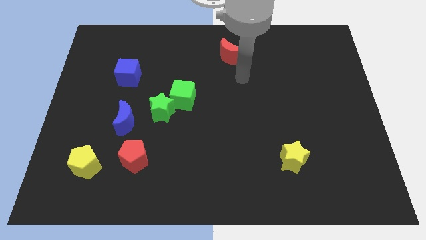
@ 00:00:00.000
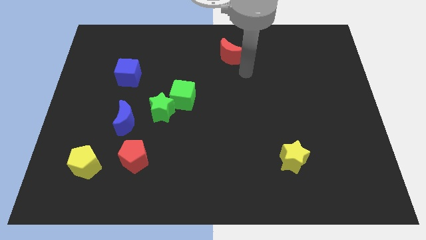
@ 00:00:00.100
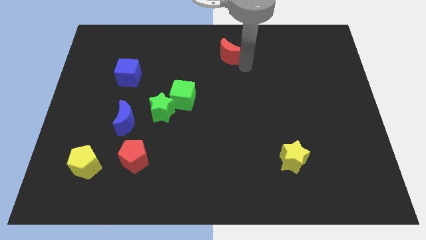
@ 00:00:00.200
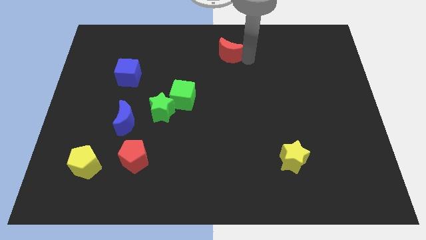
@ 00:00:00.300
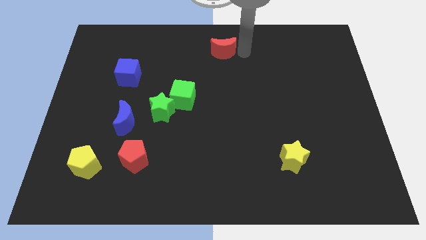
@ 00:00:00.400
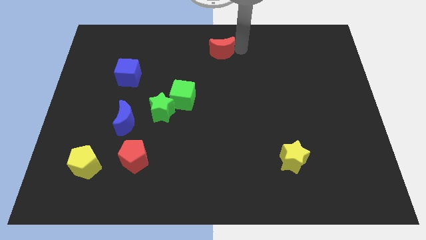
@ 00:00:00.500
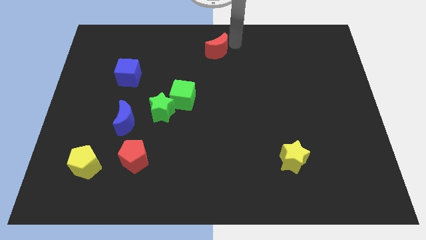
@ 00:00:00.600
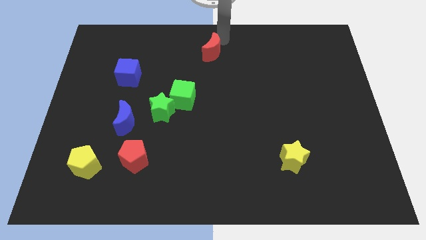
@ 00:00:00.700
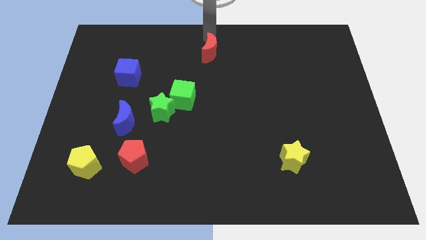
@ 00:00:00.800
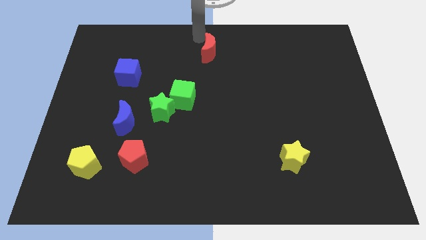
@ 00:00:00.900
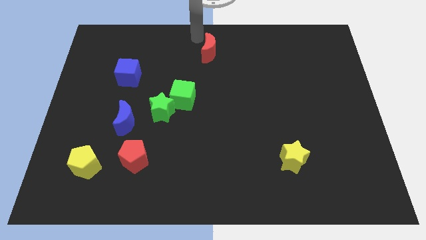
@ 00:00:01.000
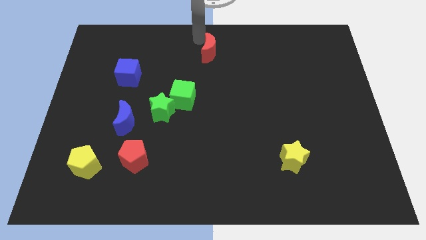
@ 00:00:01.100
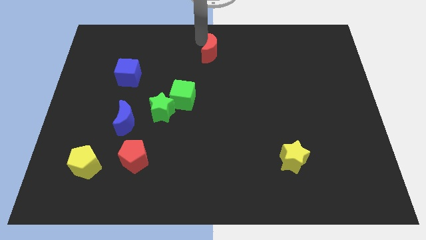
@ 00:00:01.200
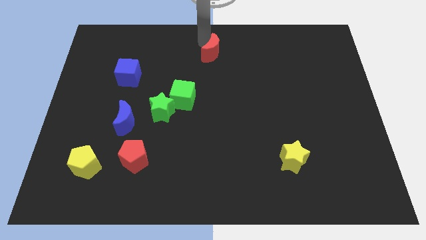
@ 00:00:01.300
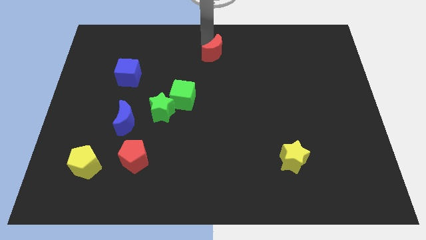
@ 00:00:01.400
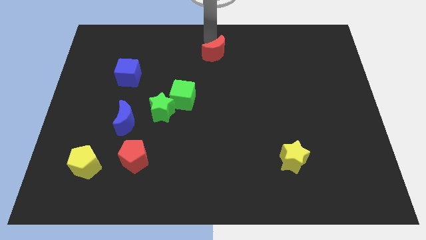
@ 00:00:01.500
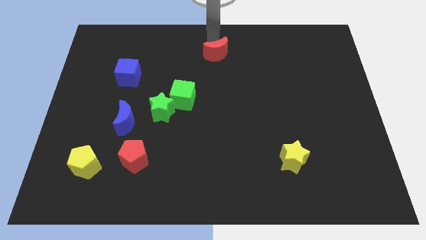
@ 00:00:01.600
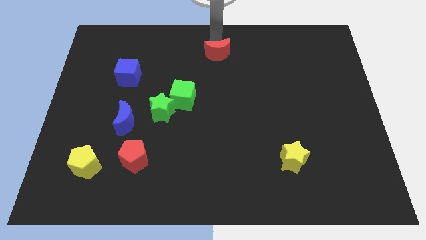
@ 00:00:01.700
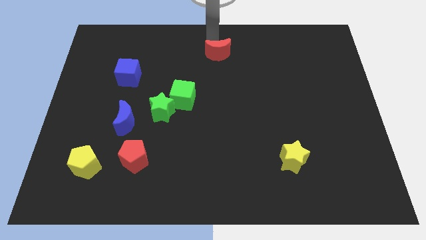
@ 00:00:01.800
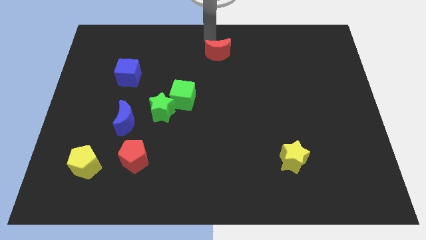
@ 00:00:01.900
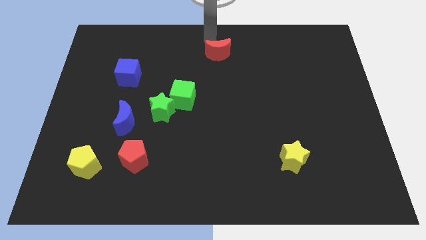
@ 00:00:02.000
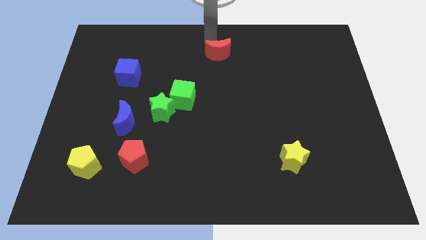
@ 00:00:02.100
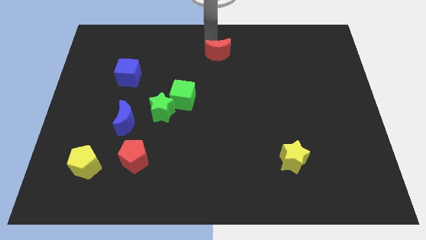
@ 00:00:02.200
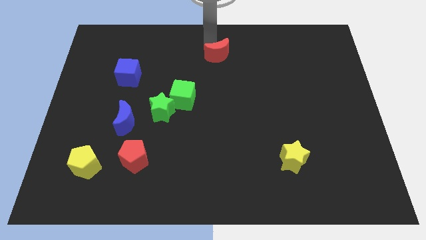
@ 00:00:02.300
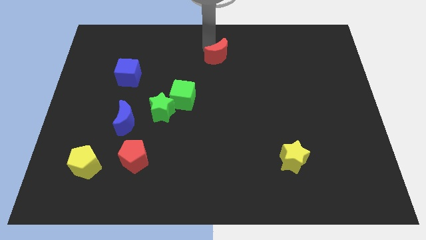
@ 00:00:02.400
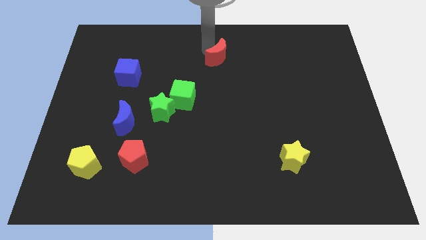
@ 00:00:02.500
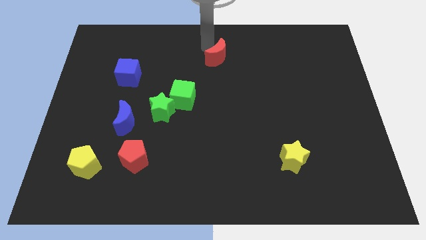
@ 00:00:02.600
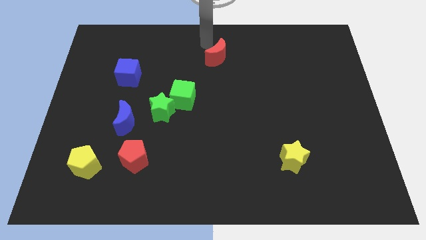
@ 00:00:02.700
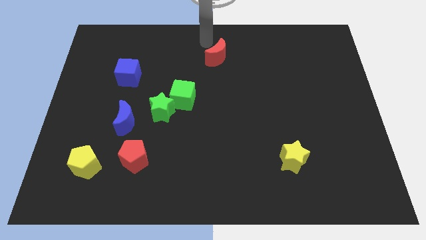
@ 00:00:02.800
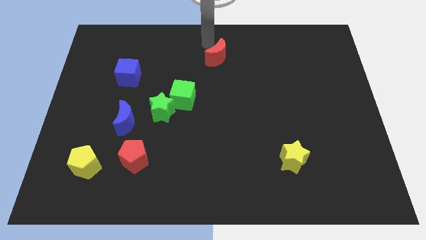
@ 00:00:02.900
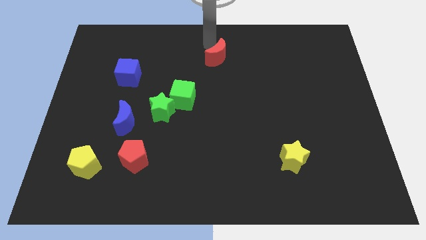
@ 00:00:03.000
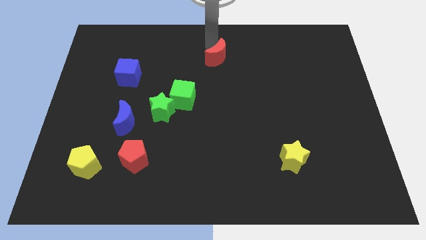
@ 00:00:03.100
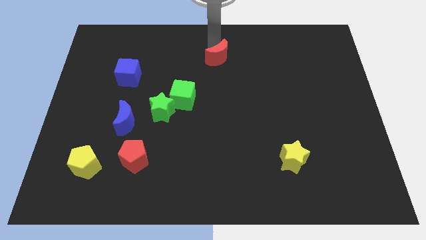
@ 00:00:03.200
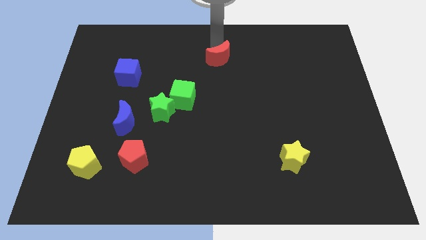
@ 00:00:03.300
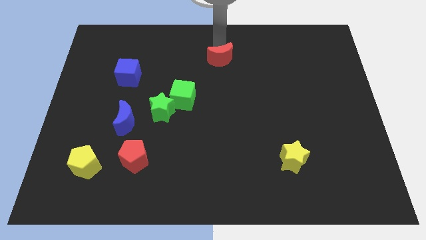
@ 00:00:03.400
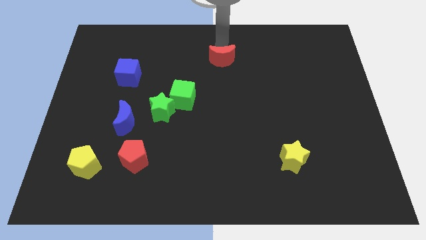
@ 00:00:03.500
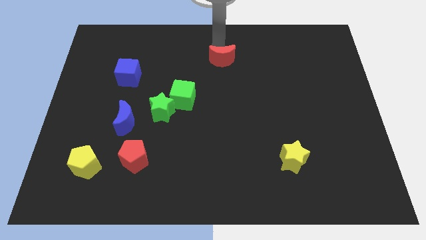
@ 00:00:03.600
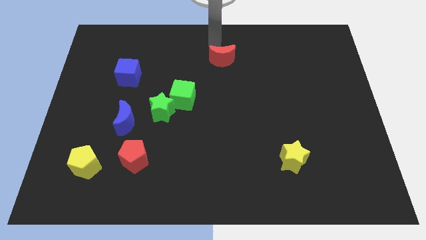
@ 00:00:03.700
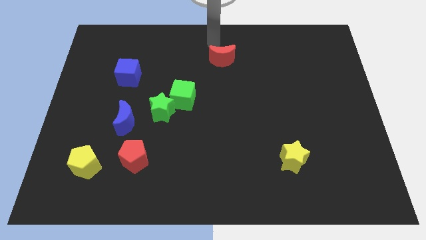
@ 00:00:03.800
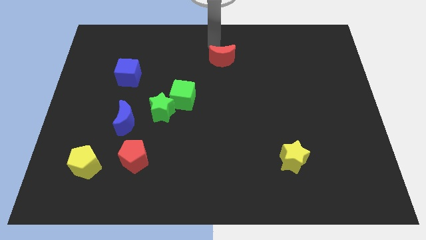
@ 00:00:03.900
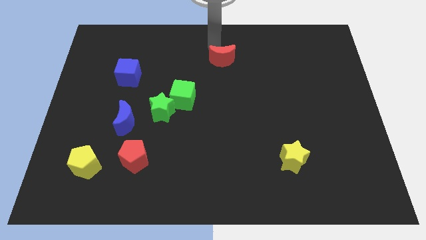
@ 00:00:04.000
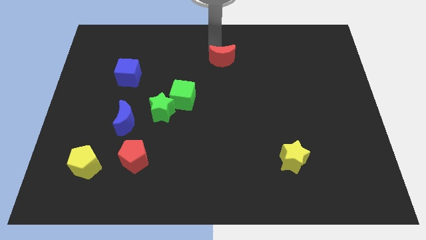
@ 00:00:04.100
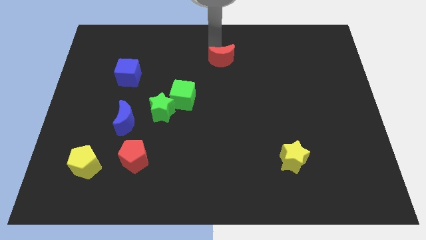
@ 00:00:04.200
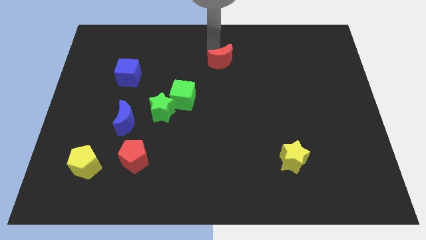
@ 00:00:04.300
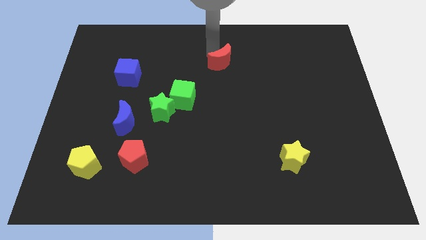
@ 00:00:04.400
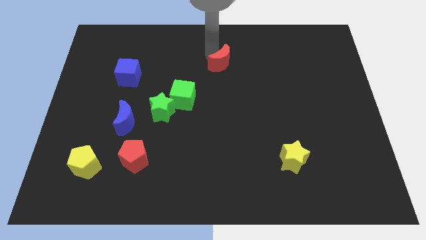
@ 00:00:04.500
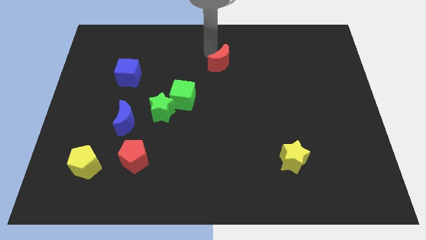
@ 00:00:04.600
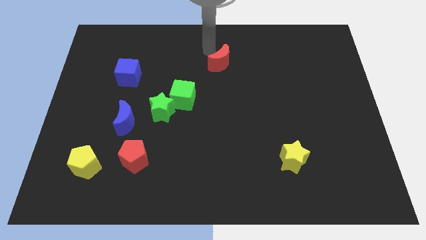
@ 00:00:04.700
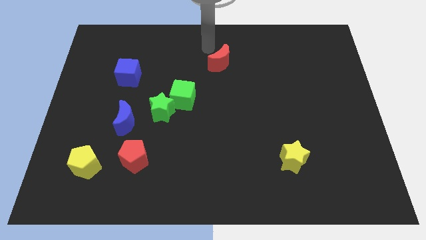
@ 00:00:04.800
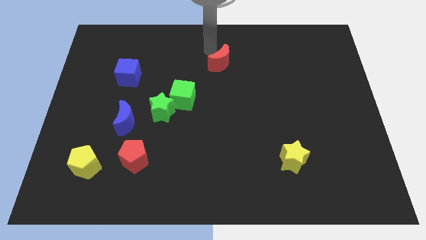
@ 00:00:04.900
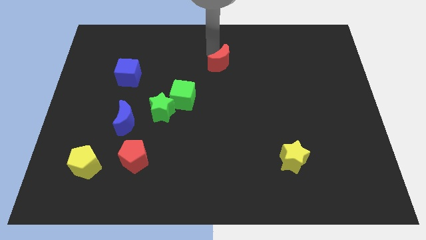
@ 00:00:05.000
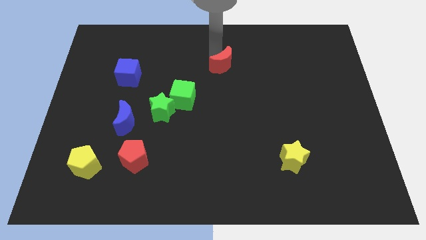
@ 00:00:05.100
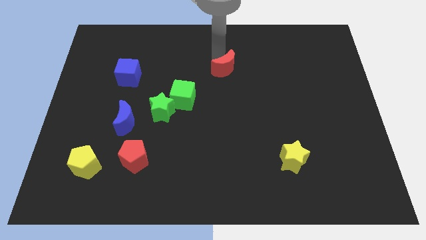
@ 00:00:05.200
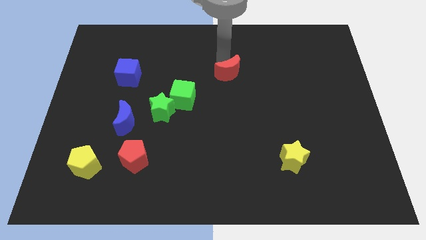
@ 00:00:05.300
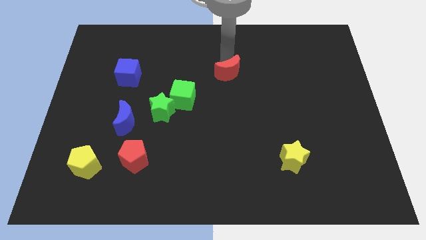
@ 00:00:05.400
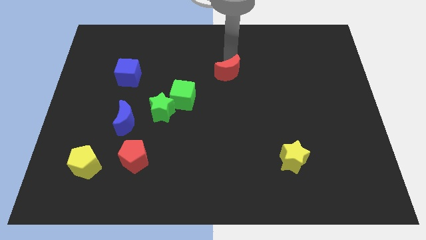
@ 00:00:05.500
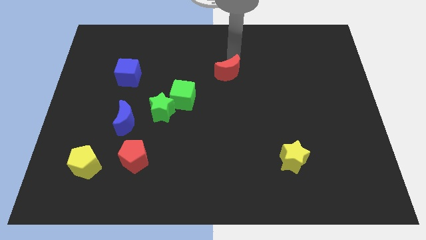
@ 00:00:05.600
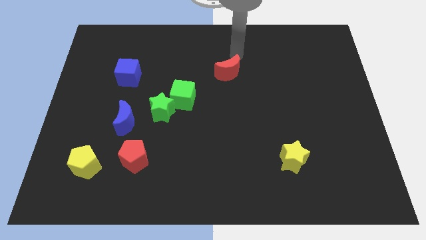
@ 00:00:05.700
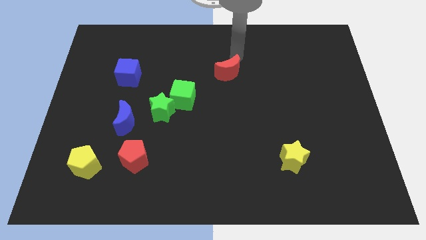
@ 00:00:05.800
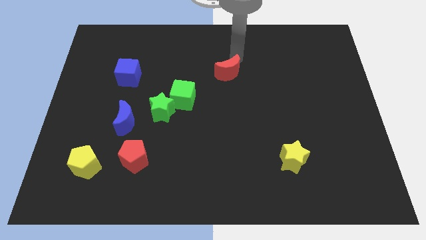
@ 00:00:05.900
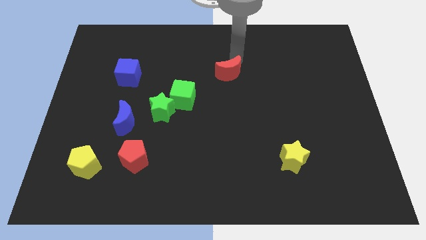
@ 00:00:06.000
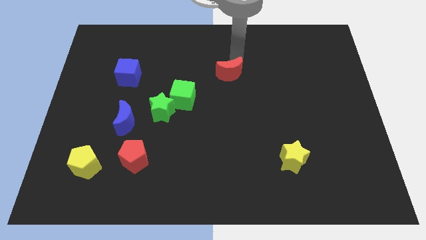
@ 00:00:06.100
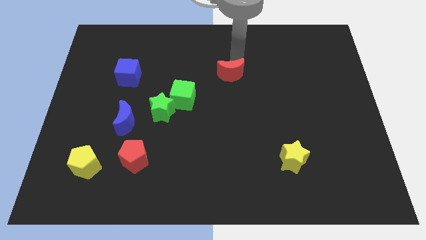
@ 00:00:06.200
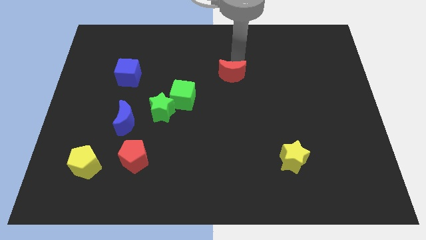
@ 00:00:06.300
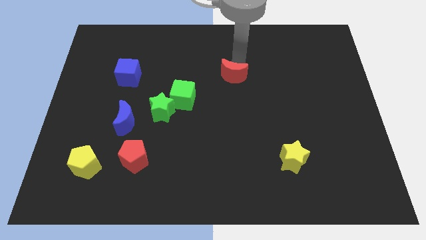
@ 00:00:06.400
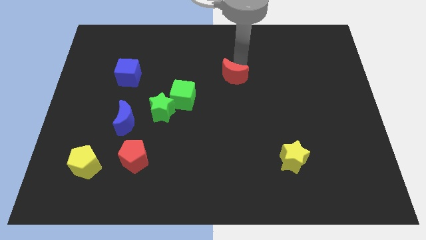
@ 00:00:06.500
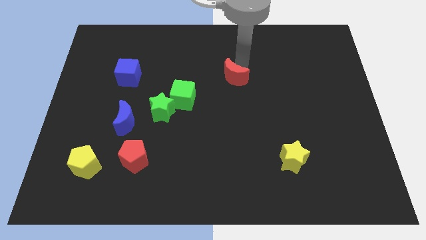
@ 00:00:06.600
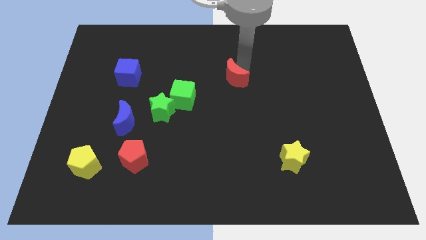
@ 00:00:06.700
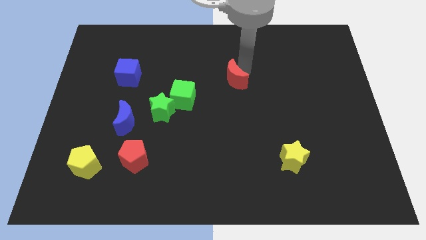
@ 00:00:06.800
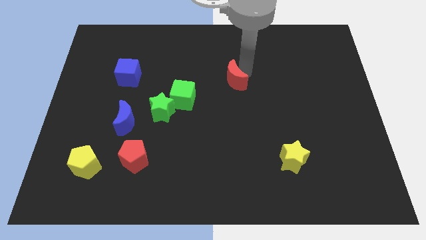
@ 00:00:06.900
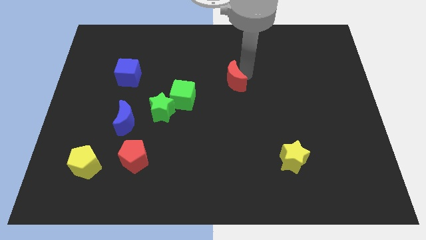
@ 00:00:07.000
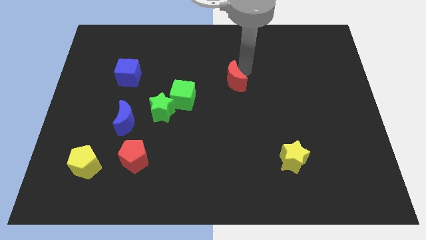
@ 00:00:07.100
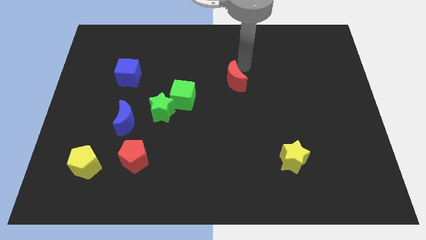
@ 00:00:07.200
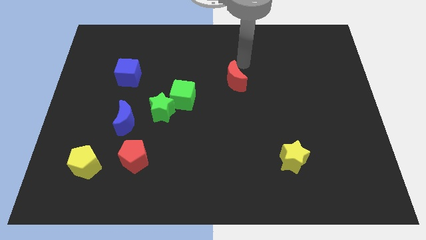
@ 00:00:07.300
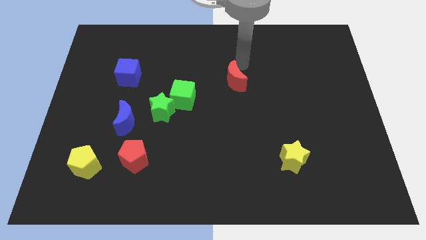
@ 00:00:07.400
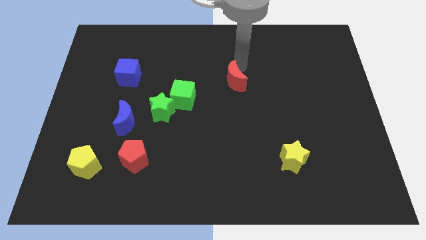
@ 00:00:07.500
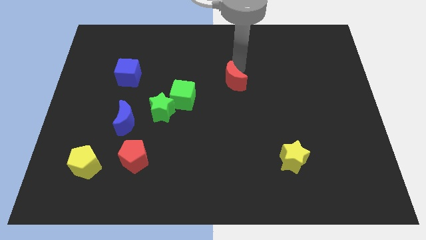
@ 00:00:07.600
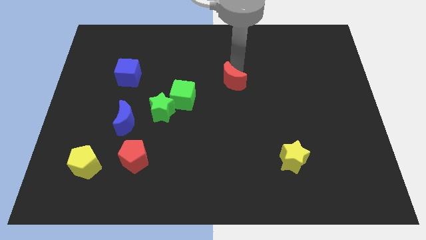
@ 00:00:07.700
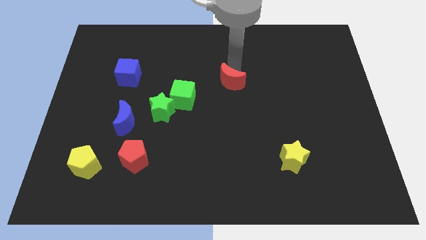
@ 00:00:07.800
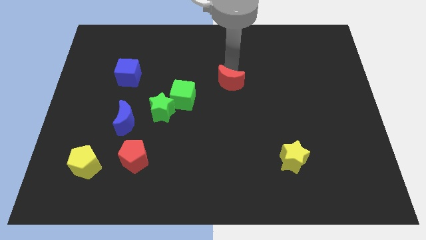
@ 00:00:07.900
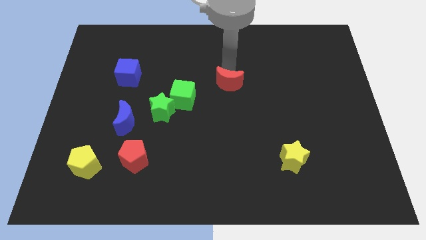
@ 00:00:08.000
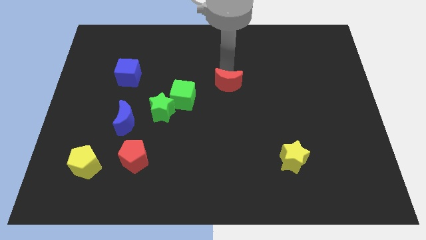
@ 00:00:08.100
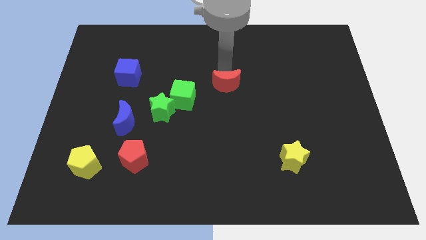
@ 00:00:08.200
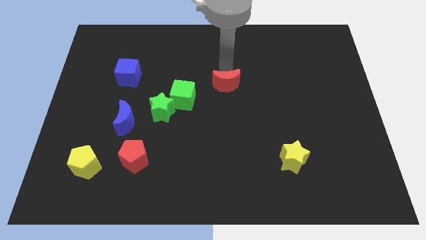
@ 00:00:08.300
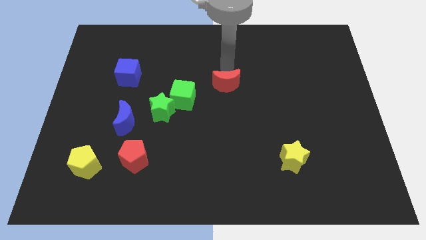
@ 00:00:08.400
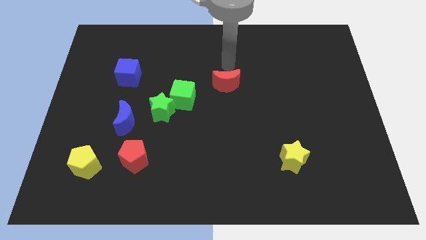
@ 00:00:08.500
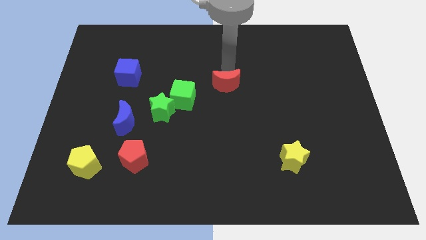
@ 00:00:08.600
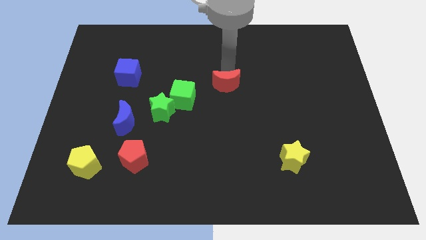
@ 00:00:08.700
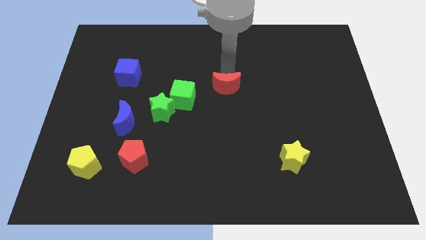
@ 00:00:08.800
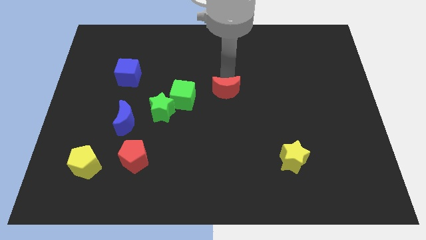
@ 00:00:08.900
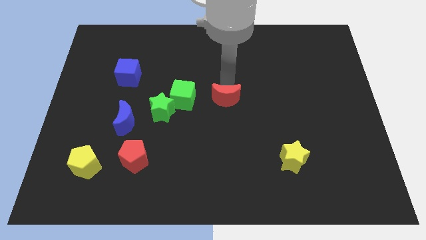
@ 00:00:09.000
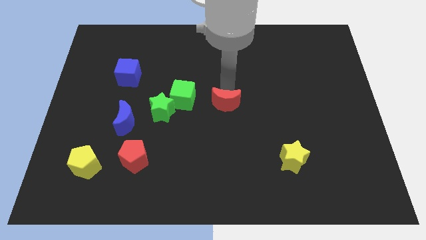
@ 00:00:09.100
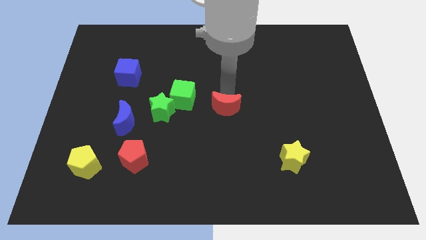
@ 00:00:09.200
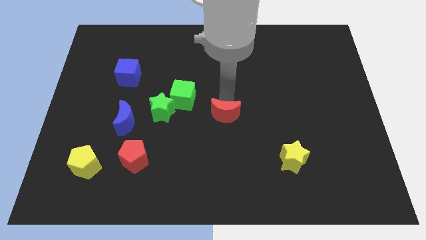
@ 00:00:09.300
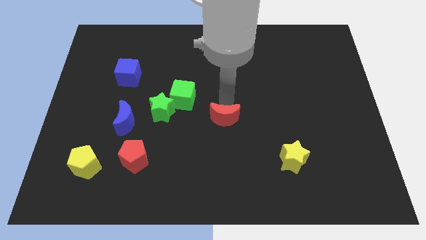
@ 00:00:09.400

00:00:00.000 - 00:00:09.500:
slide the red moon downwards
